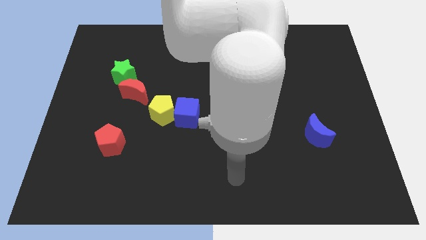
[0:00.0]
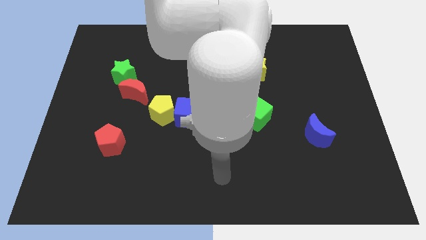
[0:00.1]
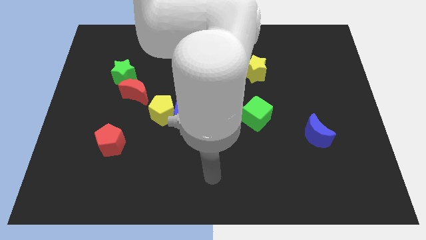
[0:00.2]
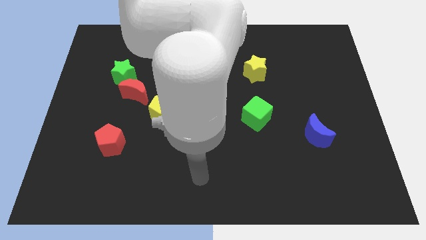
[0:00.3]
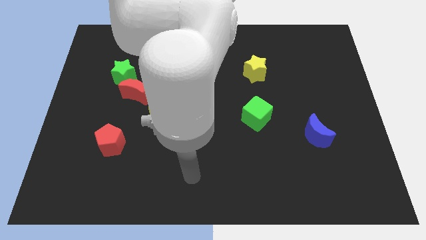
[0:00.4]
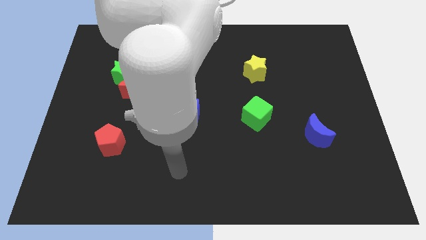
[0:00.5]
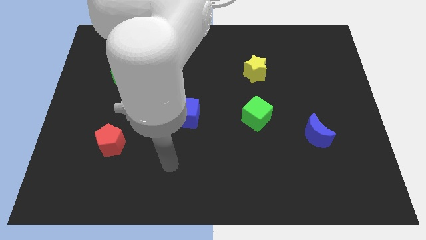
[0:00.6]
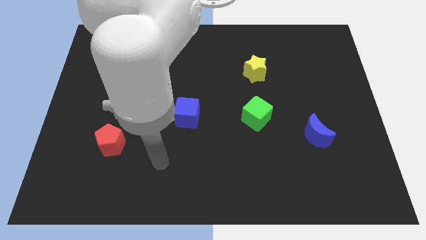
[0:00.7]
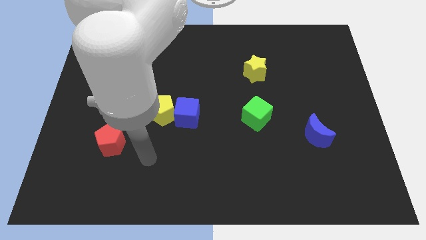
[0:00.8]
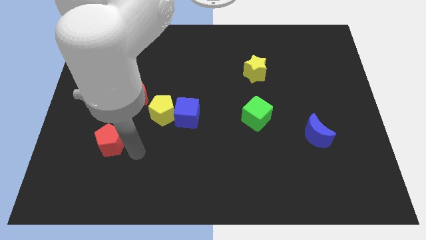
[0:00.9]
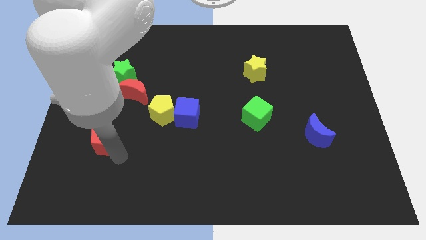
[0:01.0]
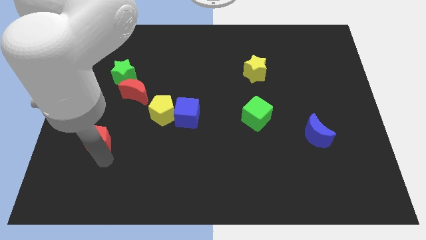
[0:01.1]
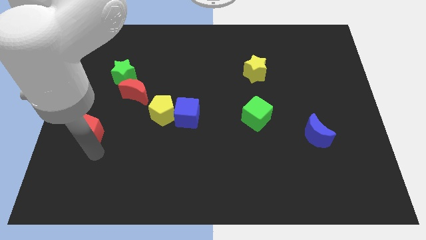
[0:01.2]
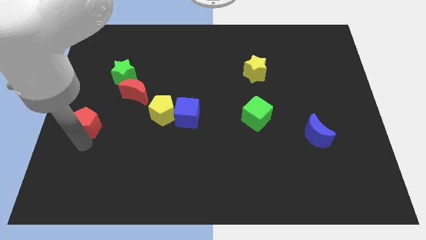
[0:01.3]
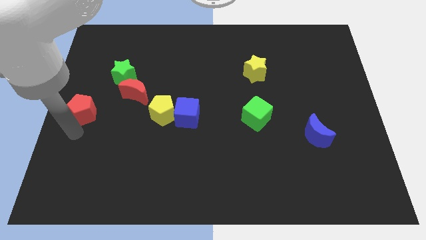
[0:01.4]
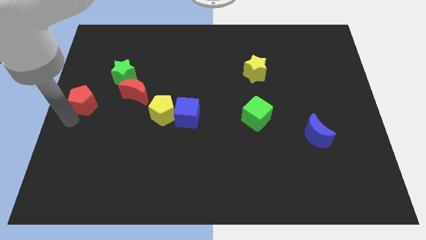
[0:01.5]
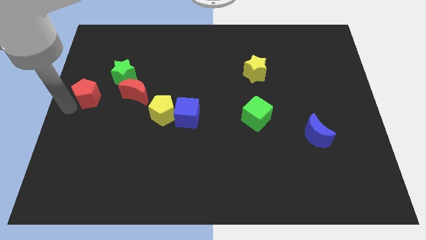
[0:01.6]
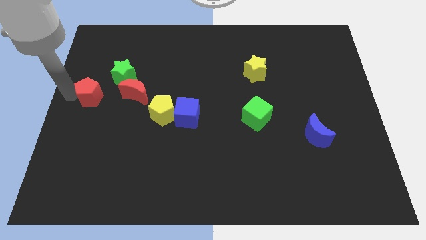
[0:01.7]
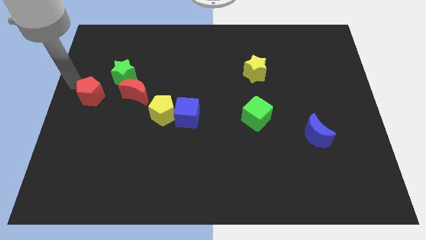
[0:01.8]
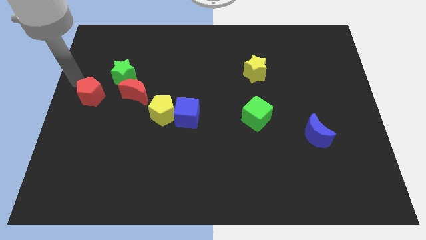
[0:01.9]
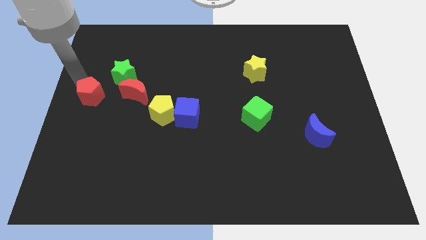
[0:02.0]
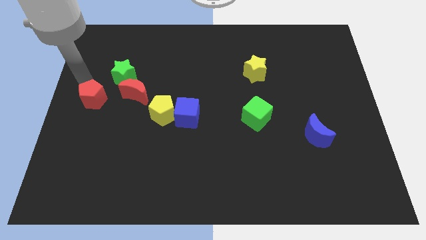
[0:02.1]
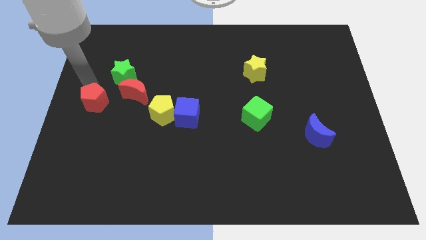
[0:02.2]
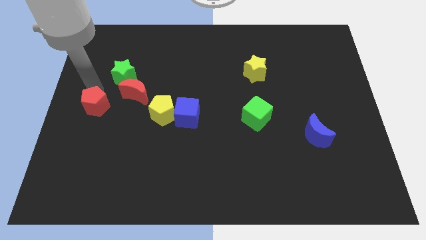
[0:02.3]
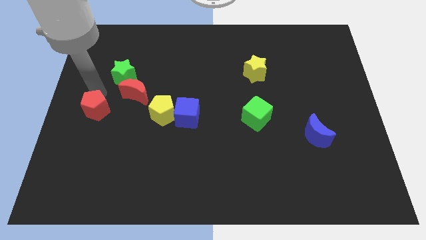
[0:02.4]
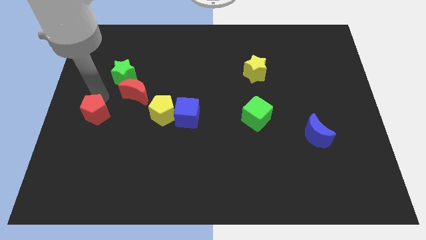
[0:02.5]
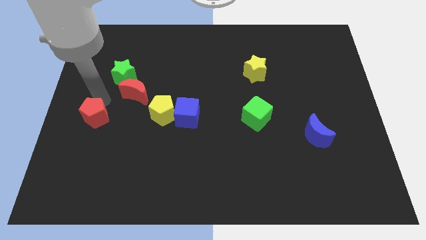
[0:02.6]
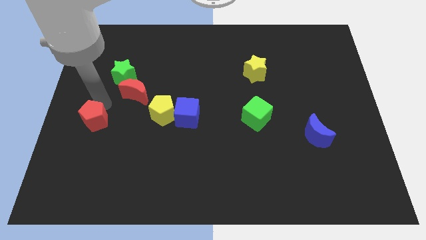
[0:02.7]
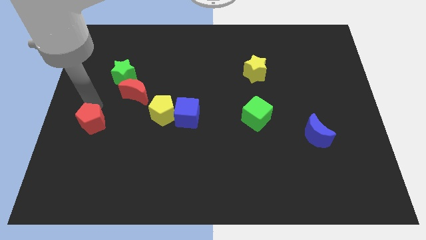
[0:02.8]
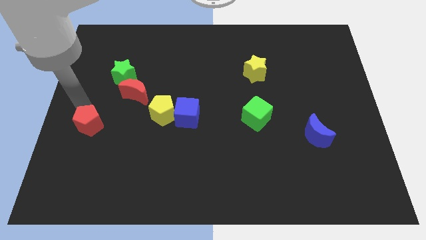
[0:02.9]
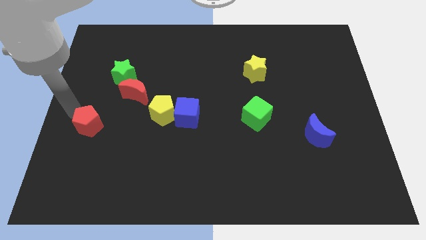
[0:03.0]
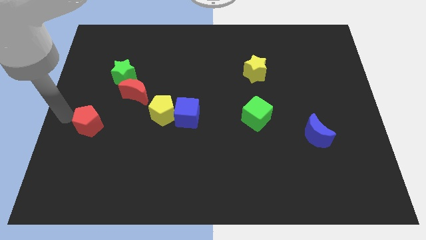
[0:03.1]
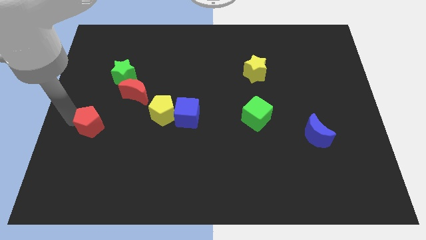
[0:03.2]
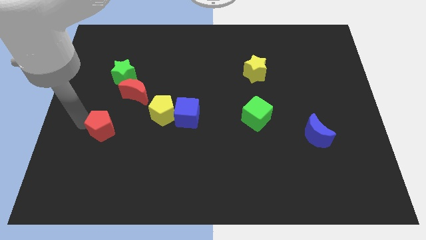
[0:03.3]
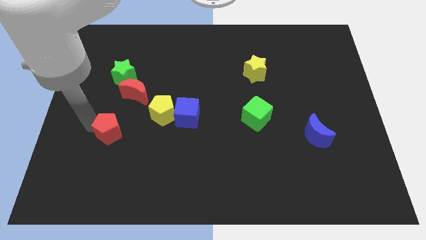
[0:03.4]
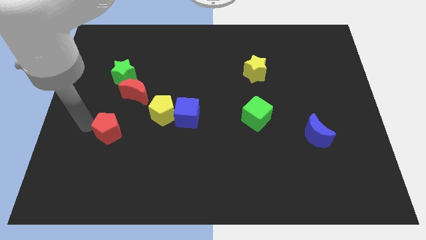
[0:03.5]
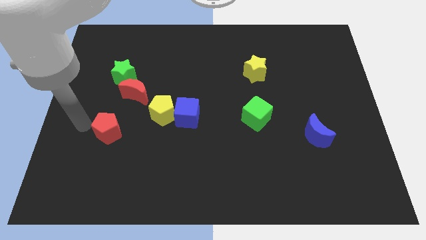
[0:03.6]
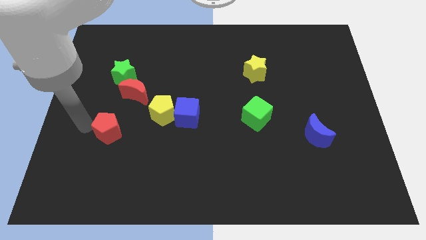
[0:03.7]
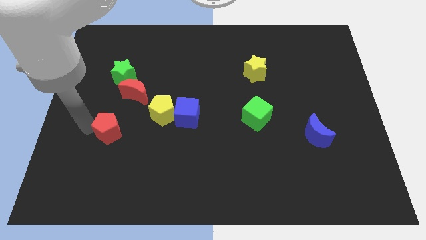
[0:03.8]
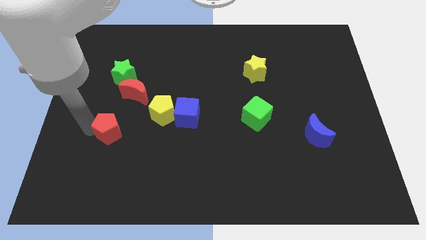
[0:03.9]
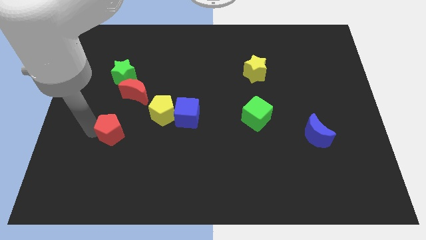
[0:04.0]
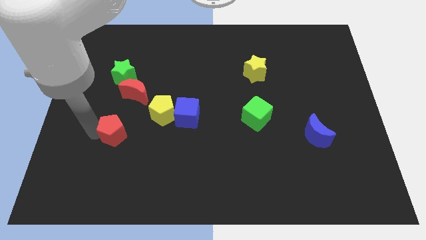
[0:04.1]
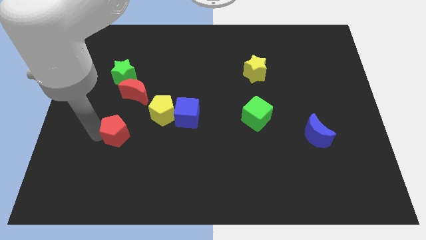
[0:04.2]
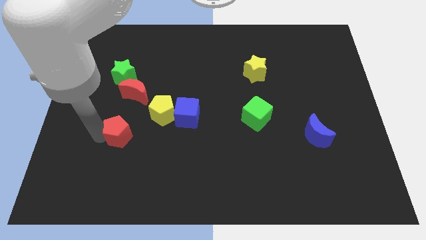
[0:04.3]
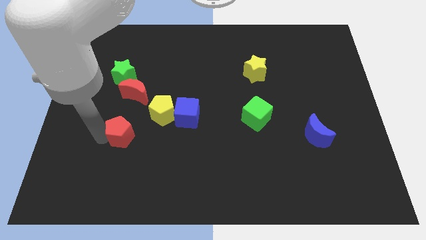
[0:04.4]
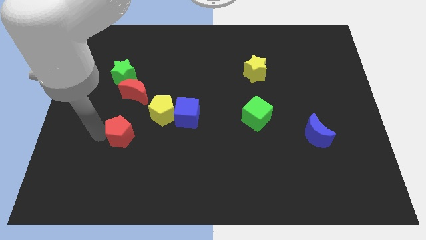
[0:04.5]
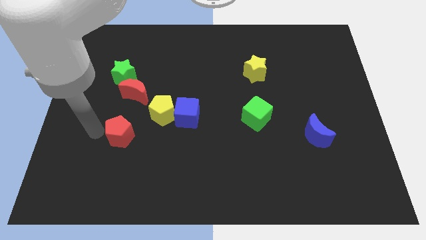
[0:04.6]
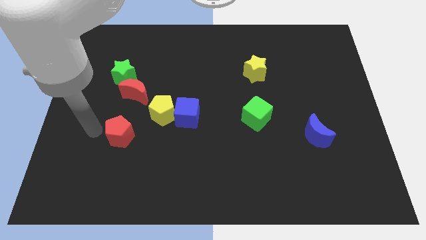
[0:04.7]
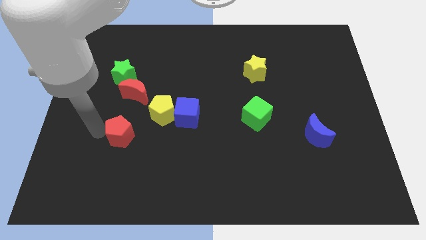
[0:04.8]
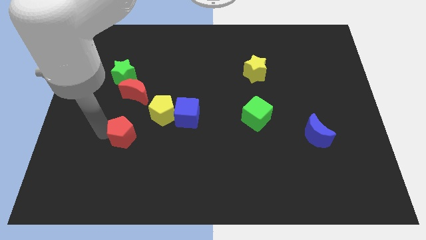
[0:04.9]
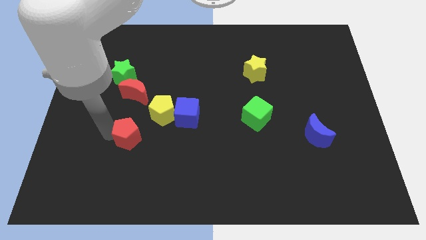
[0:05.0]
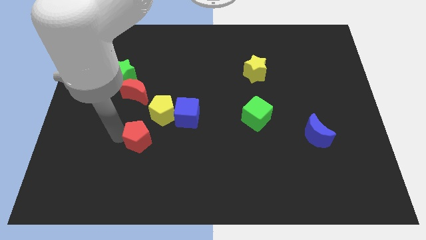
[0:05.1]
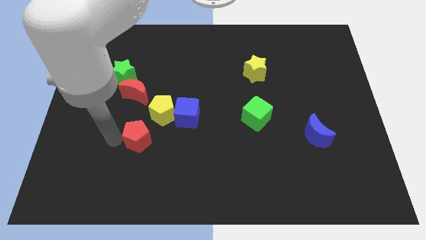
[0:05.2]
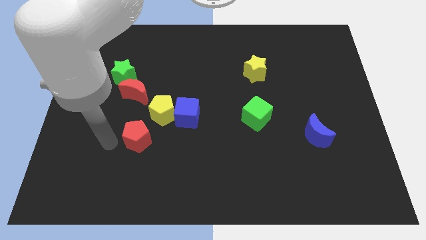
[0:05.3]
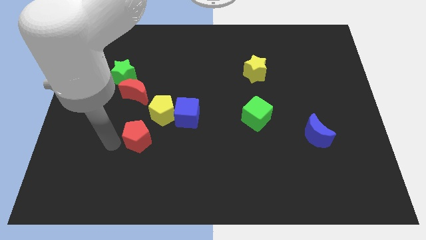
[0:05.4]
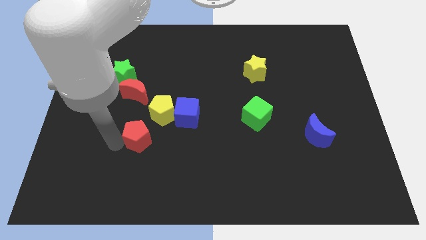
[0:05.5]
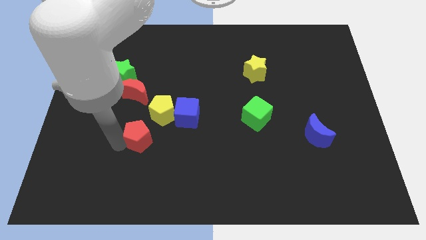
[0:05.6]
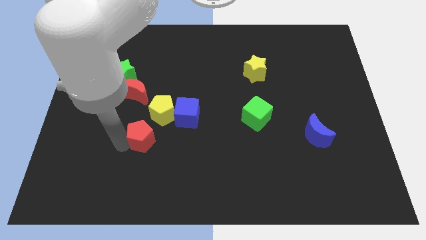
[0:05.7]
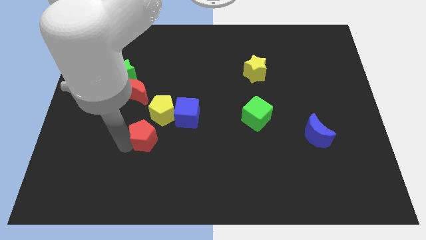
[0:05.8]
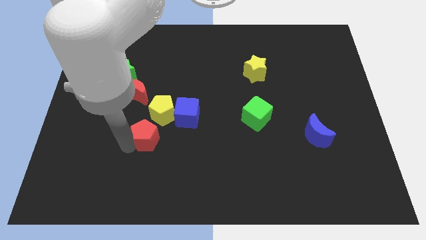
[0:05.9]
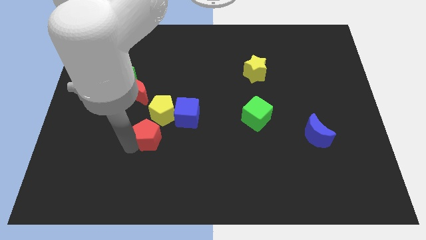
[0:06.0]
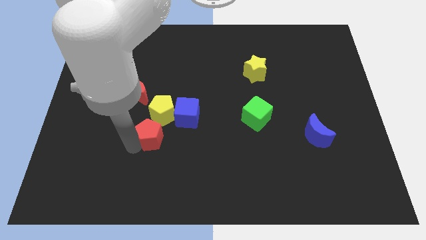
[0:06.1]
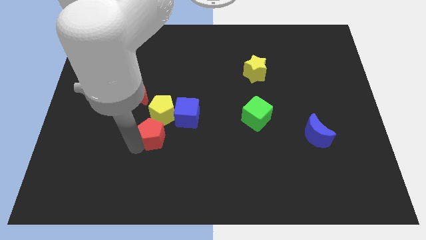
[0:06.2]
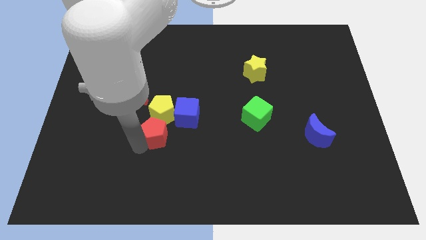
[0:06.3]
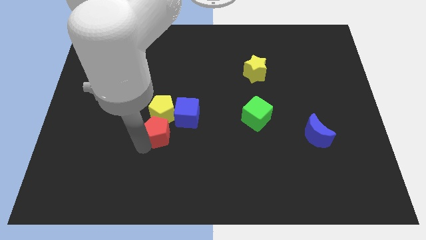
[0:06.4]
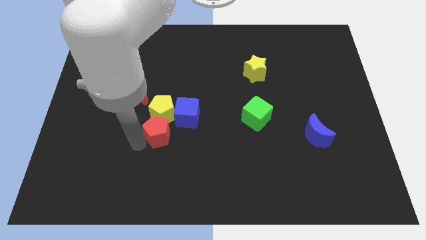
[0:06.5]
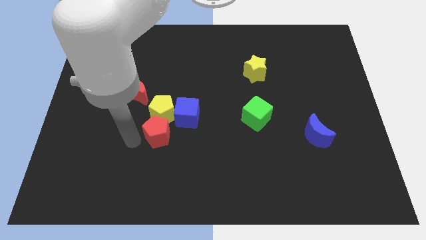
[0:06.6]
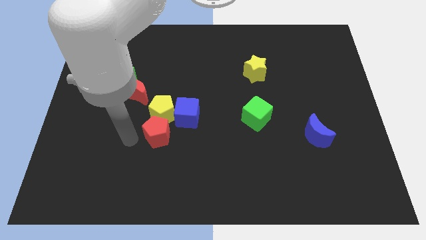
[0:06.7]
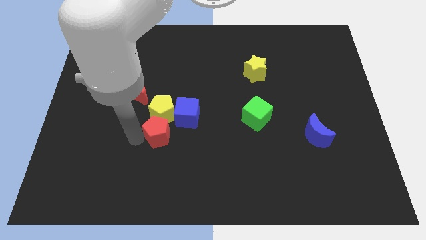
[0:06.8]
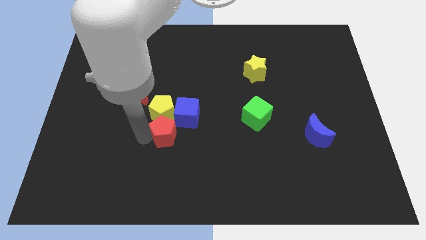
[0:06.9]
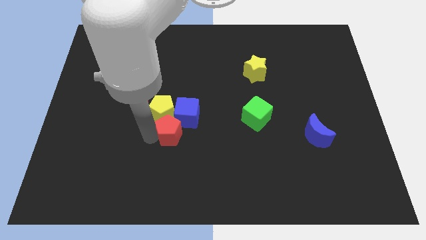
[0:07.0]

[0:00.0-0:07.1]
slide the red pentagon close to the blue cube
